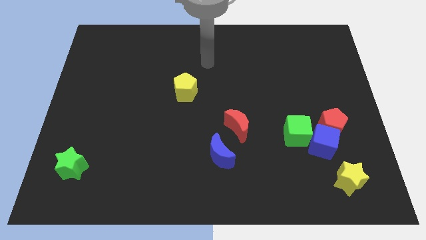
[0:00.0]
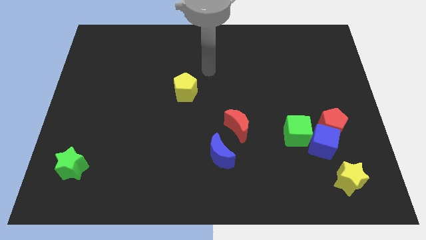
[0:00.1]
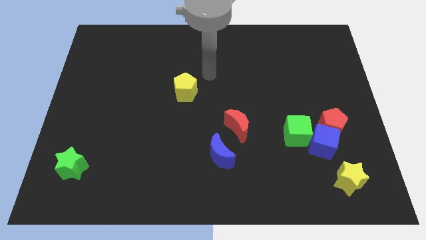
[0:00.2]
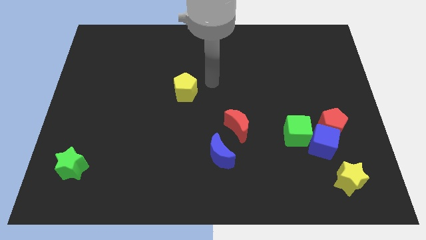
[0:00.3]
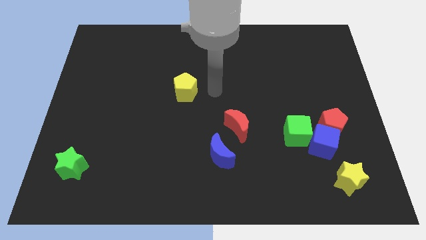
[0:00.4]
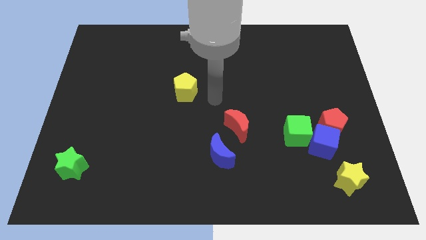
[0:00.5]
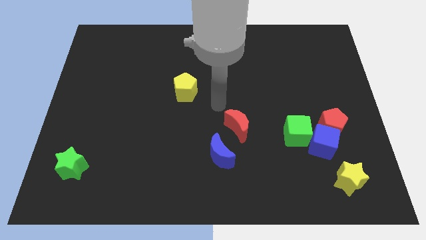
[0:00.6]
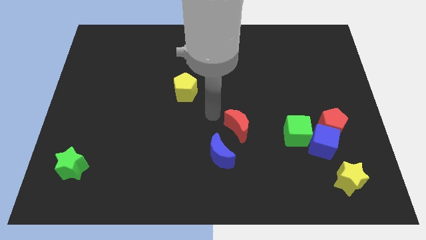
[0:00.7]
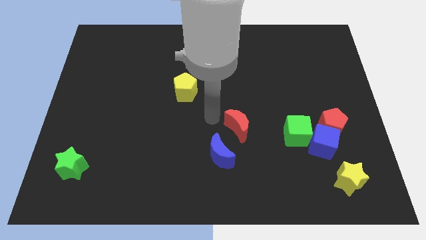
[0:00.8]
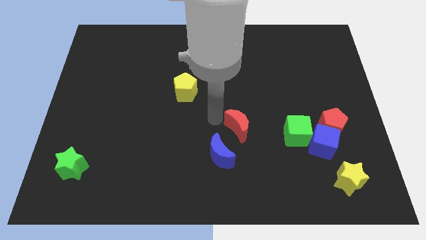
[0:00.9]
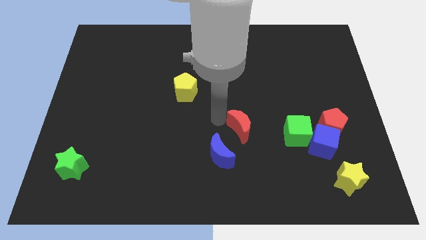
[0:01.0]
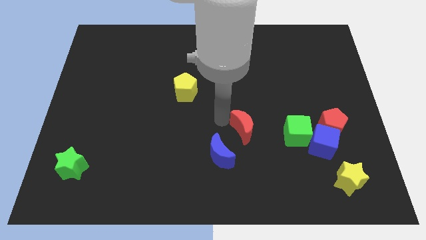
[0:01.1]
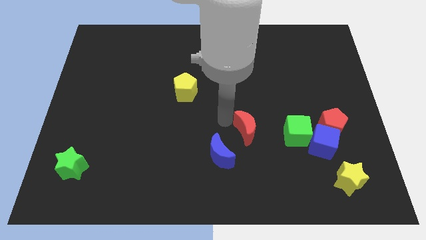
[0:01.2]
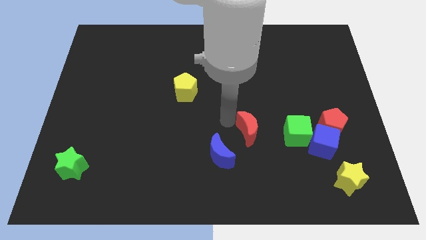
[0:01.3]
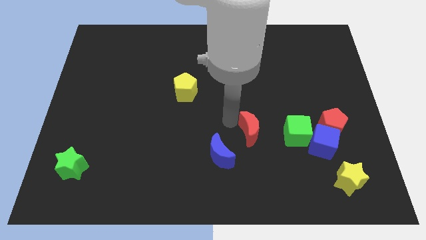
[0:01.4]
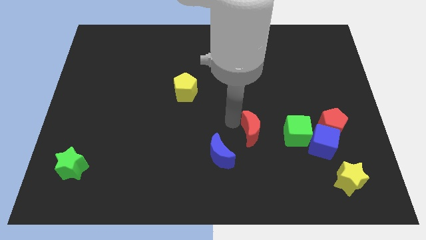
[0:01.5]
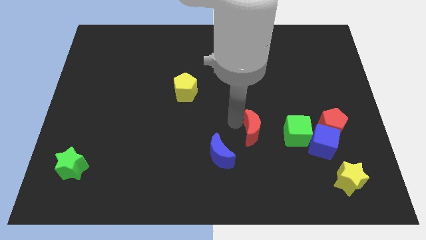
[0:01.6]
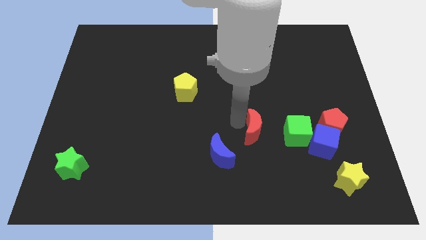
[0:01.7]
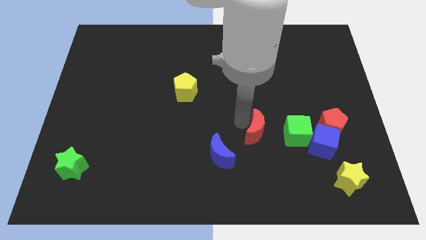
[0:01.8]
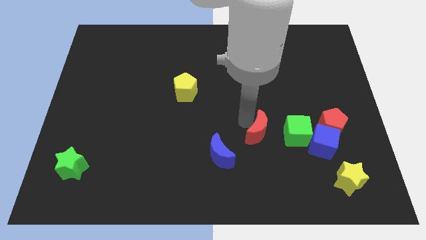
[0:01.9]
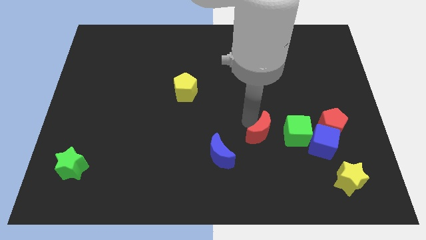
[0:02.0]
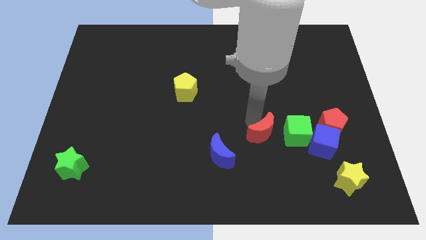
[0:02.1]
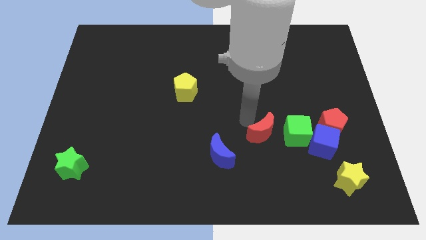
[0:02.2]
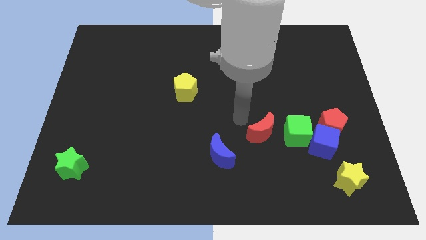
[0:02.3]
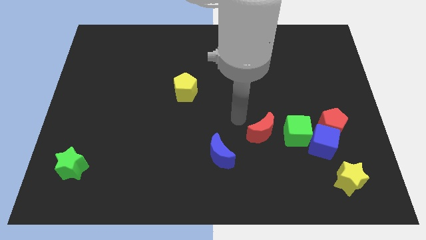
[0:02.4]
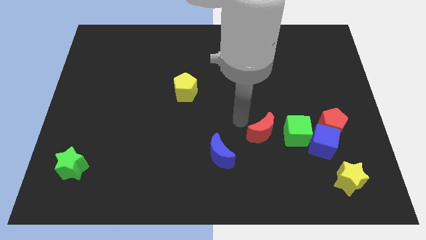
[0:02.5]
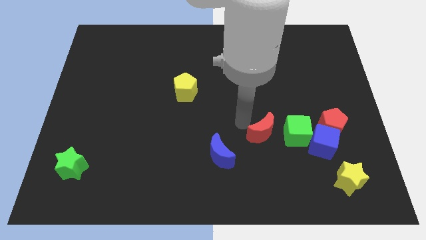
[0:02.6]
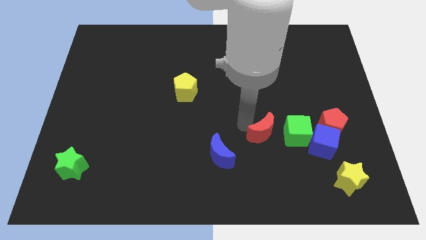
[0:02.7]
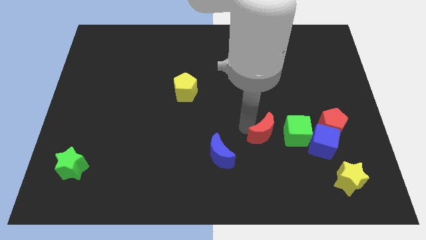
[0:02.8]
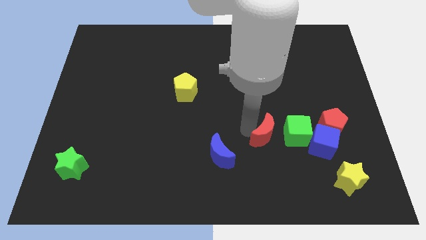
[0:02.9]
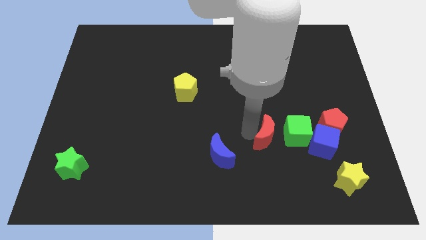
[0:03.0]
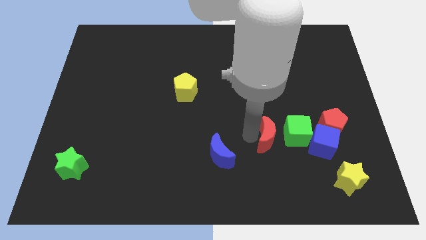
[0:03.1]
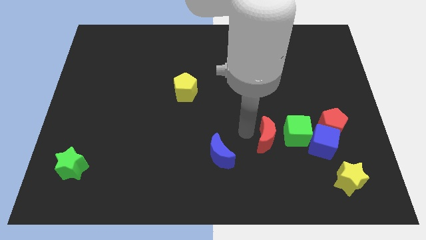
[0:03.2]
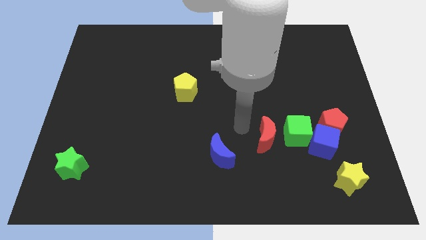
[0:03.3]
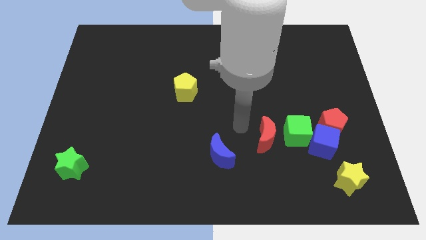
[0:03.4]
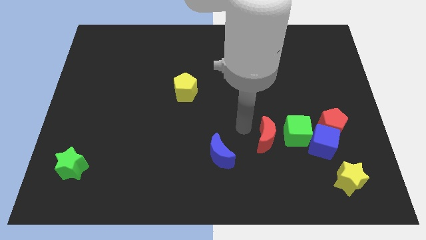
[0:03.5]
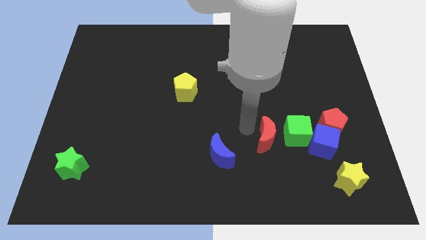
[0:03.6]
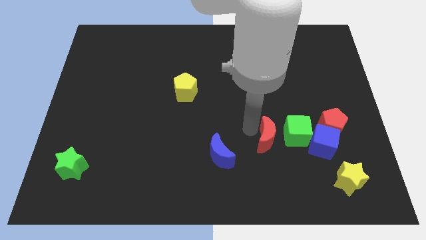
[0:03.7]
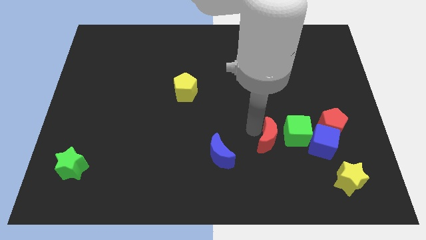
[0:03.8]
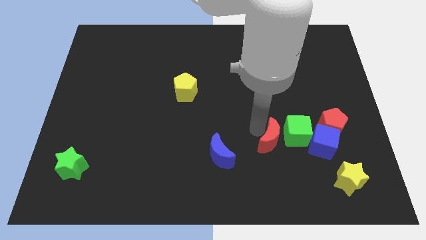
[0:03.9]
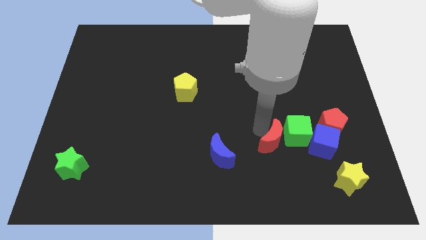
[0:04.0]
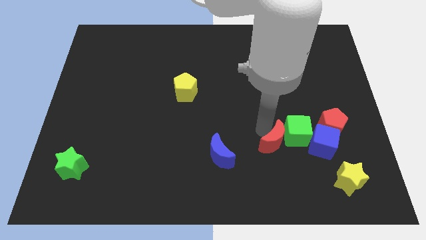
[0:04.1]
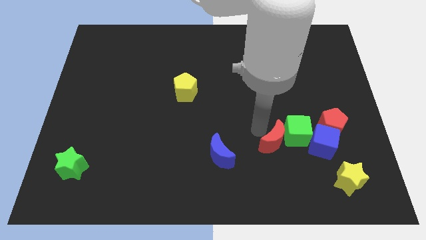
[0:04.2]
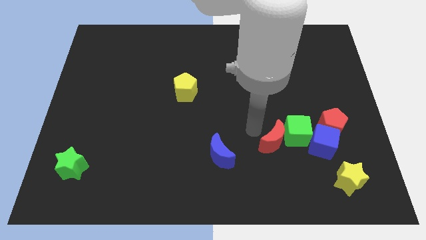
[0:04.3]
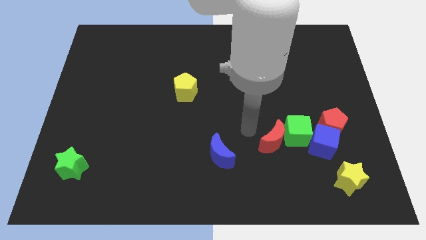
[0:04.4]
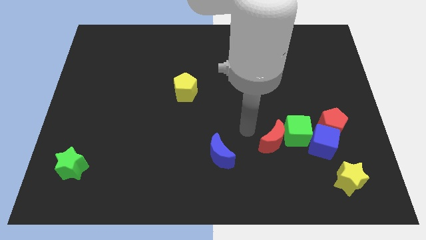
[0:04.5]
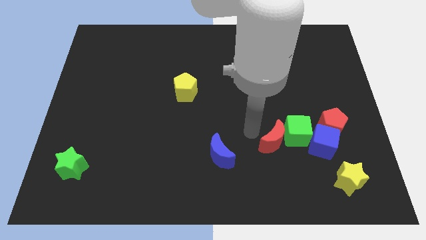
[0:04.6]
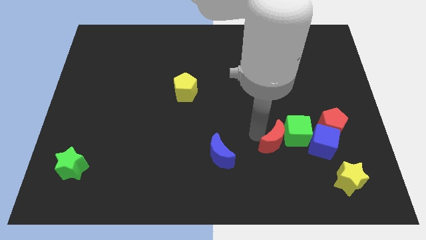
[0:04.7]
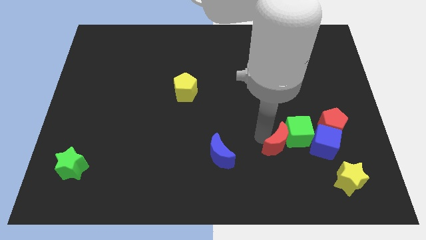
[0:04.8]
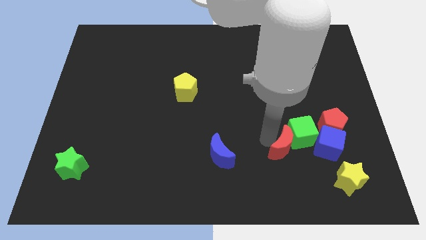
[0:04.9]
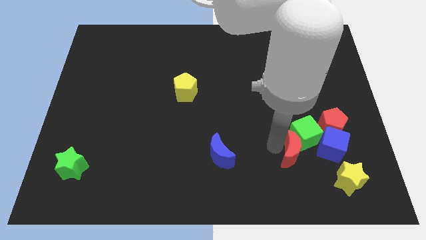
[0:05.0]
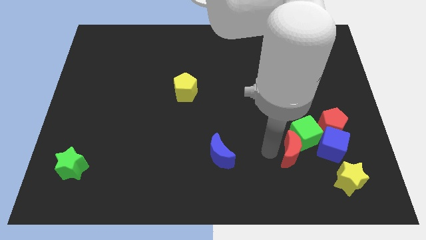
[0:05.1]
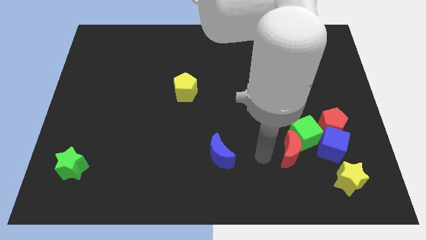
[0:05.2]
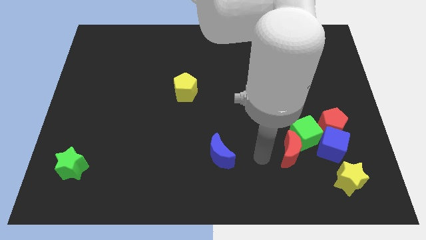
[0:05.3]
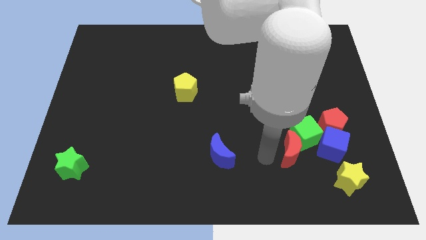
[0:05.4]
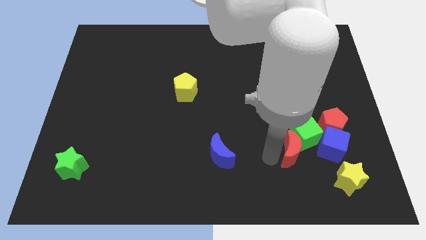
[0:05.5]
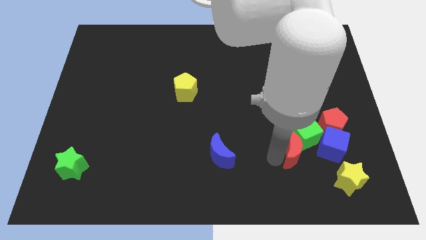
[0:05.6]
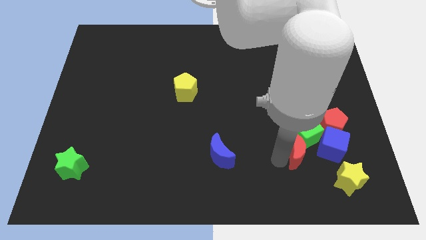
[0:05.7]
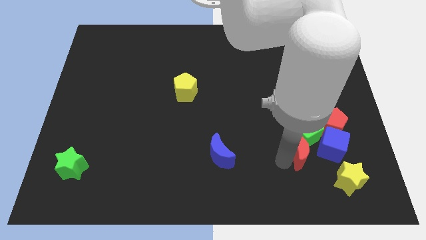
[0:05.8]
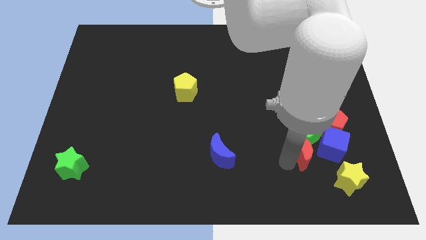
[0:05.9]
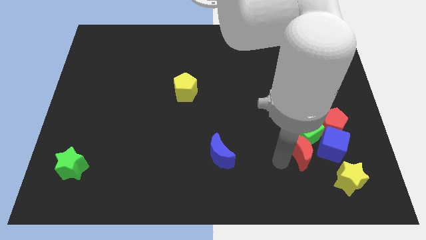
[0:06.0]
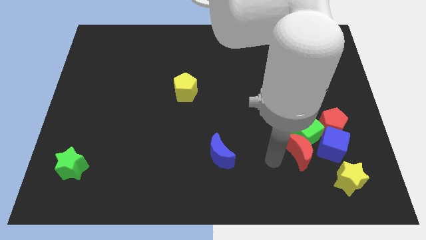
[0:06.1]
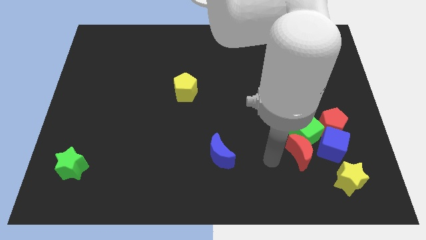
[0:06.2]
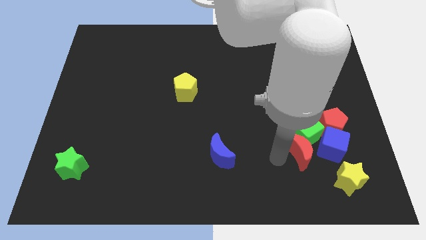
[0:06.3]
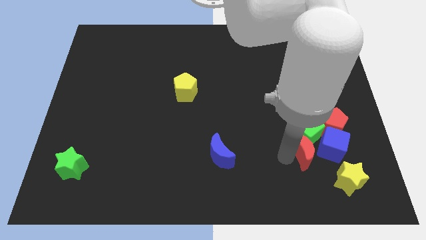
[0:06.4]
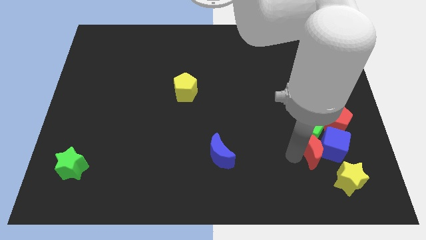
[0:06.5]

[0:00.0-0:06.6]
push the red moon towards the blue cube

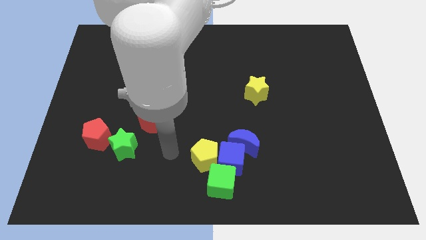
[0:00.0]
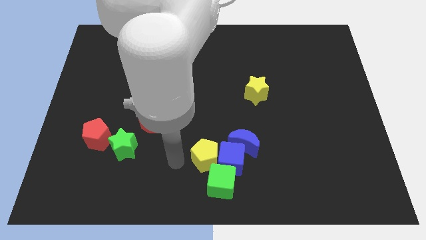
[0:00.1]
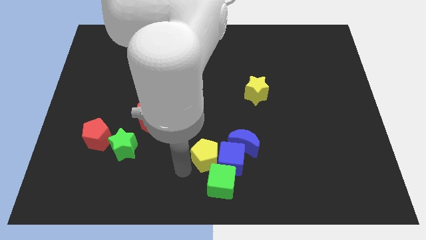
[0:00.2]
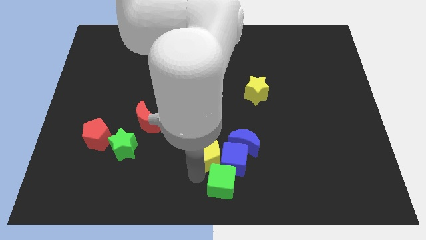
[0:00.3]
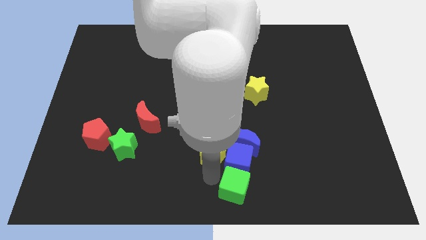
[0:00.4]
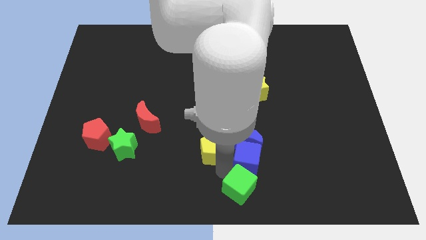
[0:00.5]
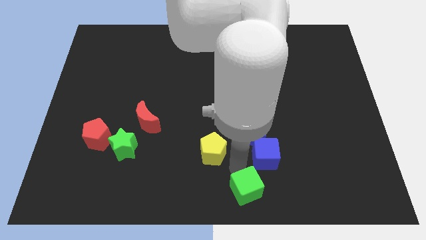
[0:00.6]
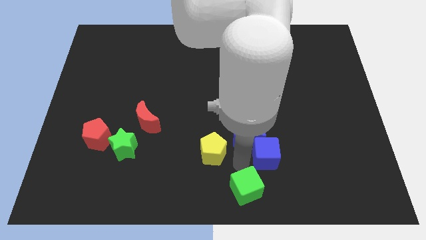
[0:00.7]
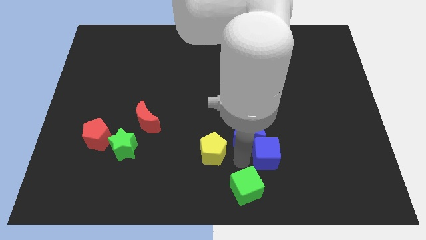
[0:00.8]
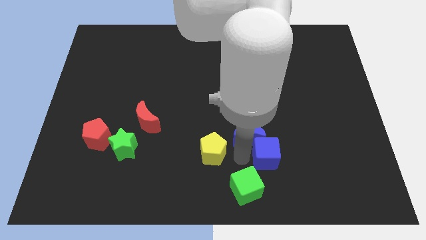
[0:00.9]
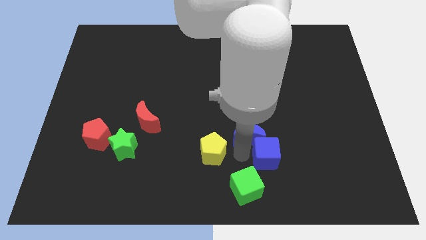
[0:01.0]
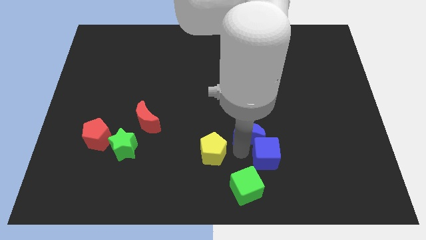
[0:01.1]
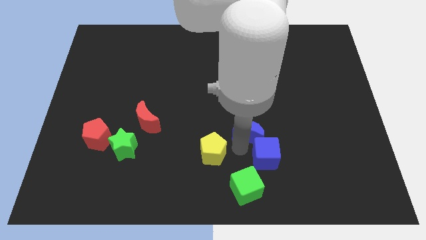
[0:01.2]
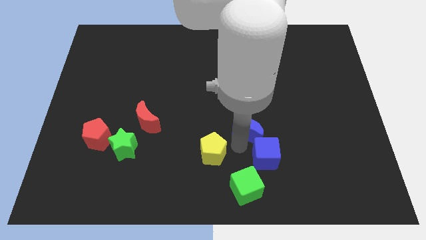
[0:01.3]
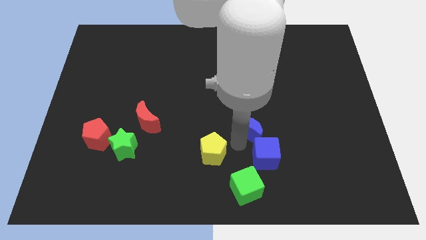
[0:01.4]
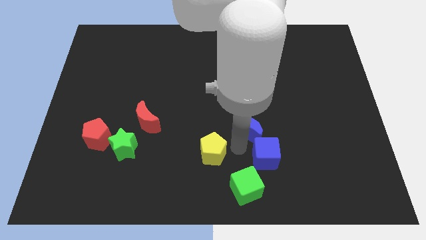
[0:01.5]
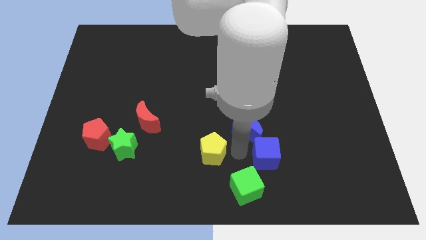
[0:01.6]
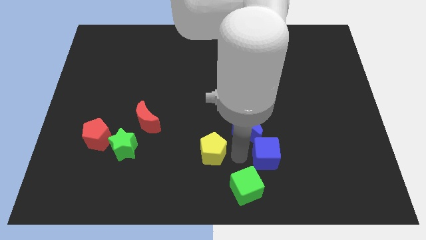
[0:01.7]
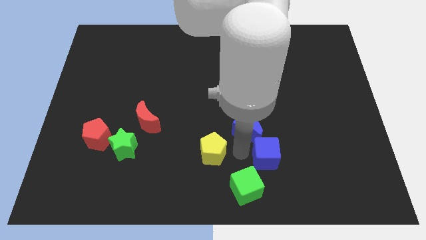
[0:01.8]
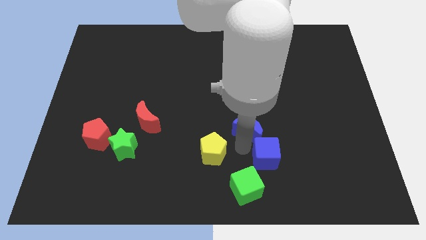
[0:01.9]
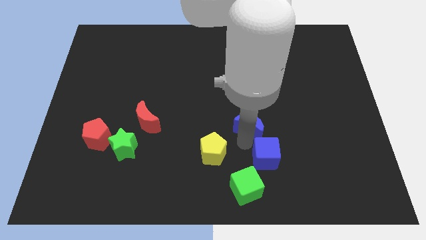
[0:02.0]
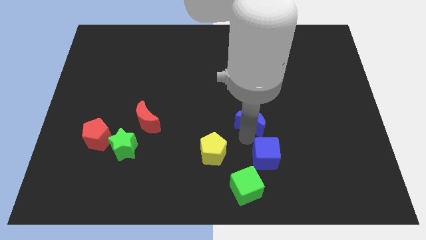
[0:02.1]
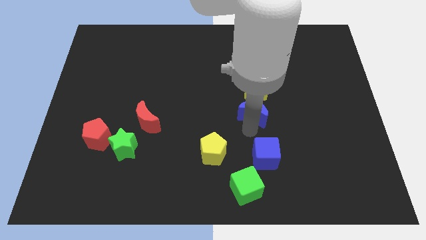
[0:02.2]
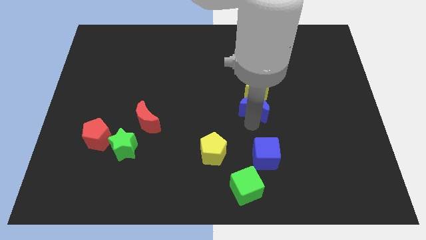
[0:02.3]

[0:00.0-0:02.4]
push the blue moon towards the yellow star
